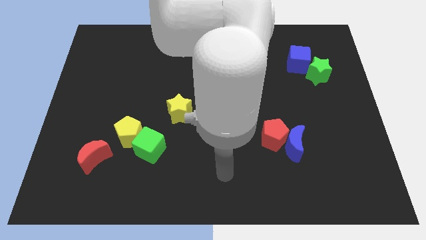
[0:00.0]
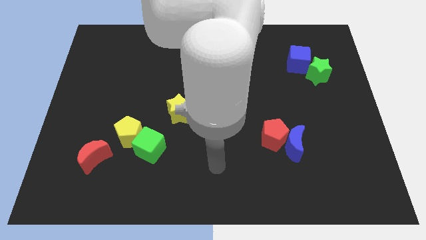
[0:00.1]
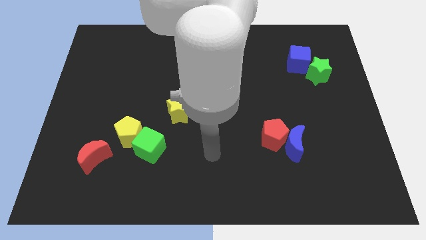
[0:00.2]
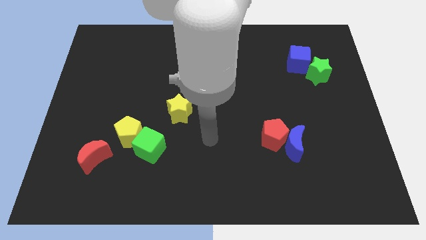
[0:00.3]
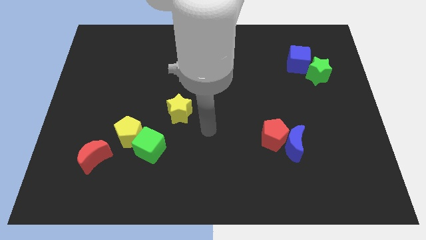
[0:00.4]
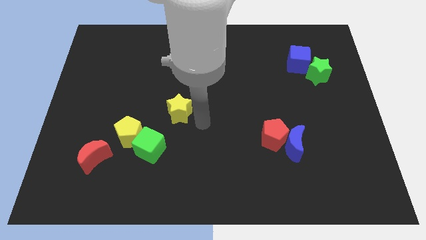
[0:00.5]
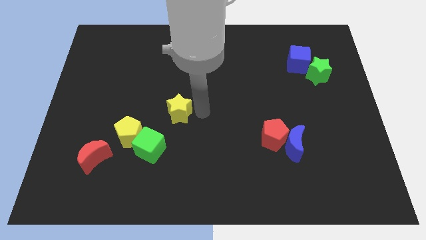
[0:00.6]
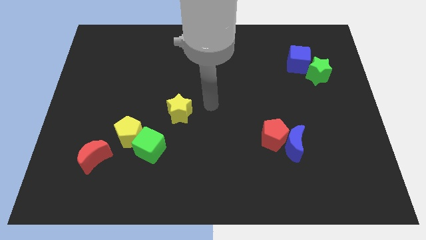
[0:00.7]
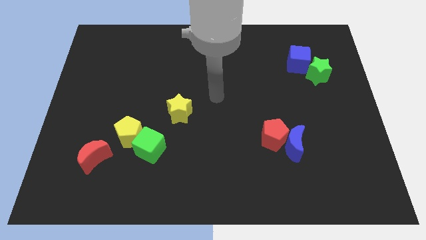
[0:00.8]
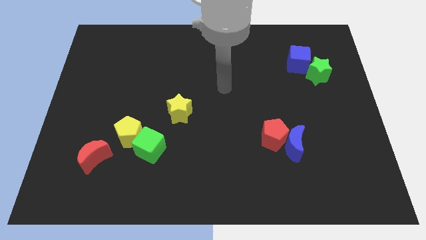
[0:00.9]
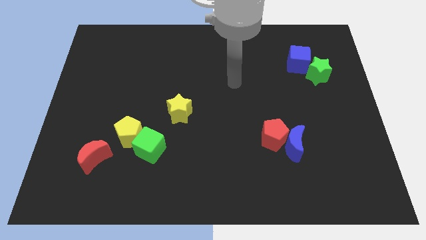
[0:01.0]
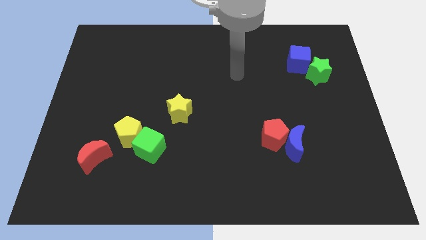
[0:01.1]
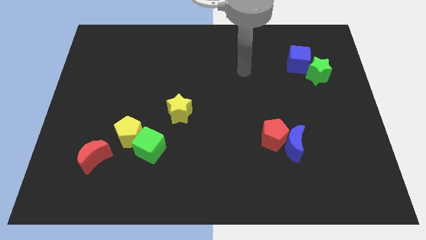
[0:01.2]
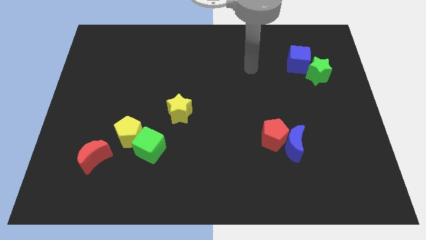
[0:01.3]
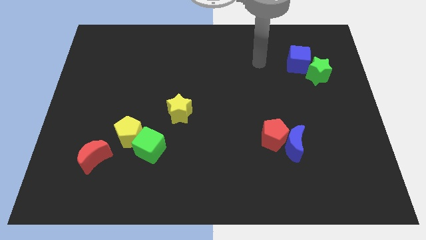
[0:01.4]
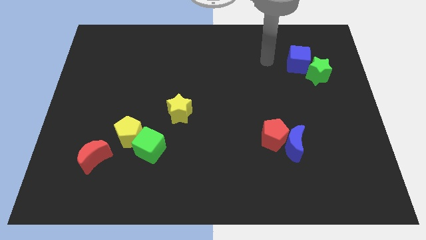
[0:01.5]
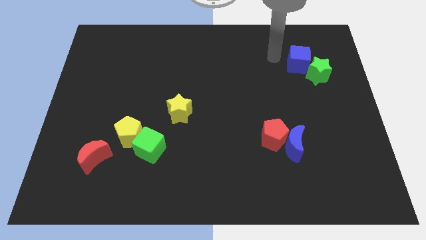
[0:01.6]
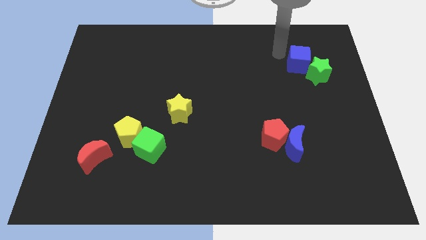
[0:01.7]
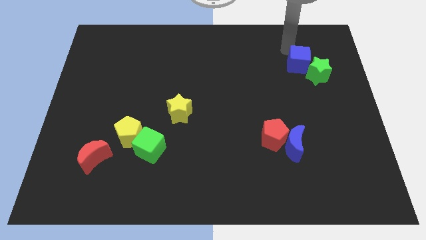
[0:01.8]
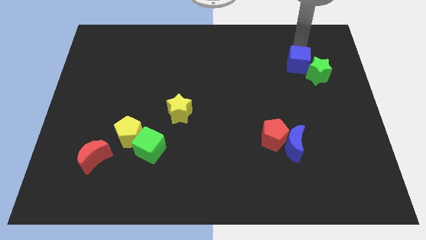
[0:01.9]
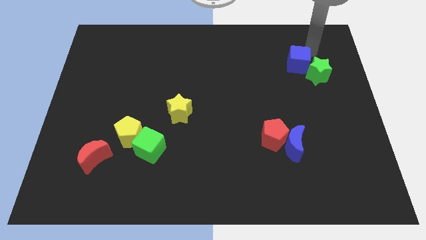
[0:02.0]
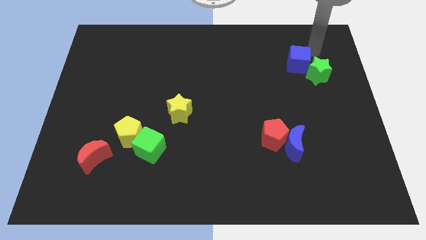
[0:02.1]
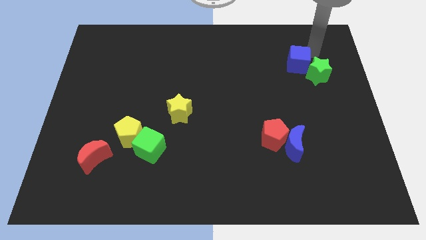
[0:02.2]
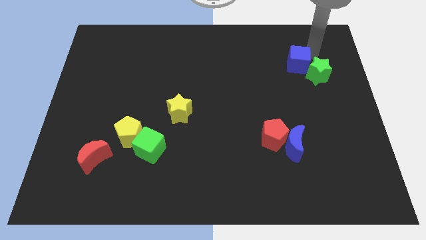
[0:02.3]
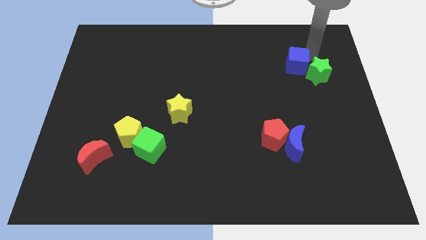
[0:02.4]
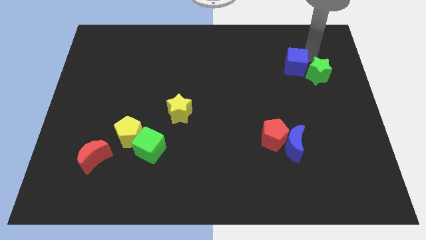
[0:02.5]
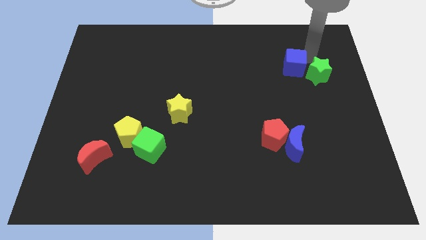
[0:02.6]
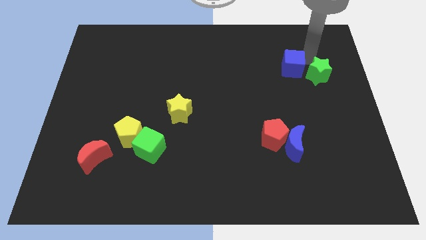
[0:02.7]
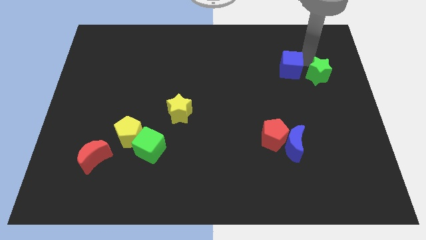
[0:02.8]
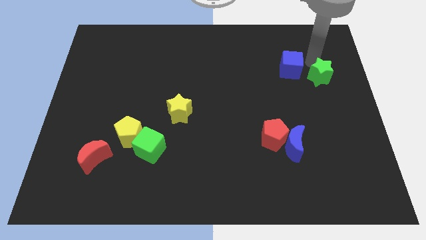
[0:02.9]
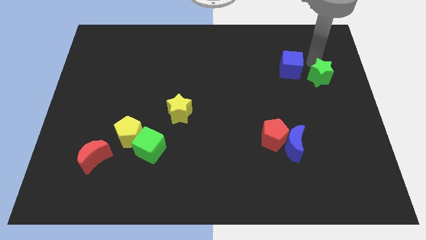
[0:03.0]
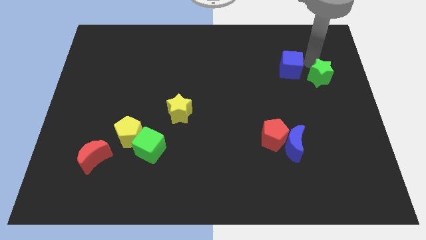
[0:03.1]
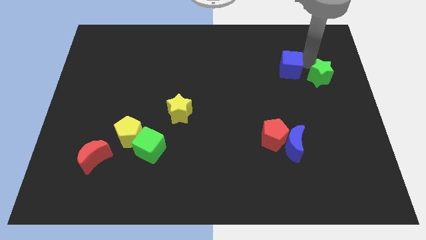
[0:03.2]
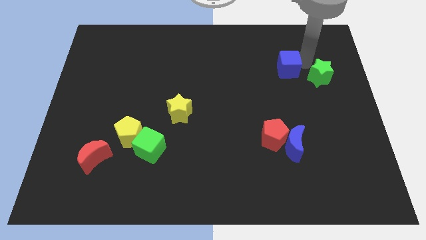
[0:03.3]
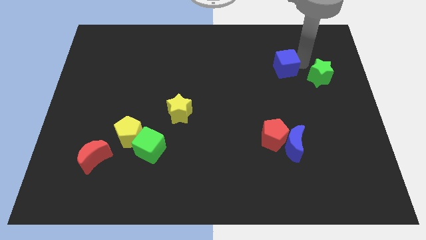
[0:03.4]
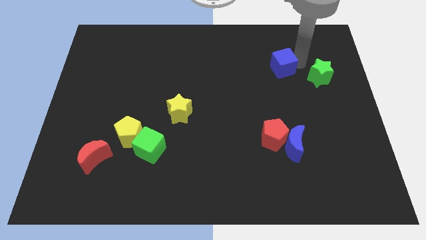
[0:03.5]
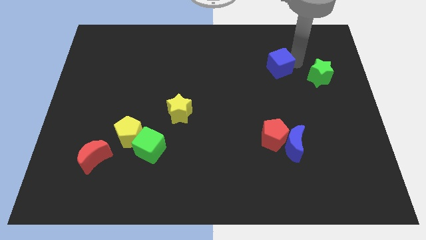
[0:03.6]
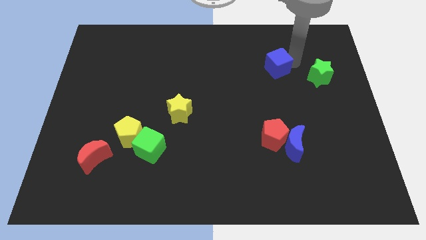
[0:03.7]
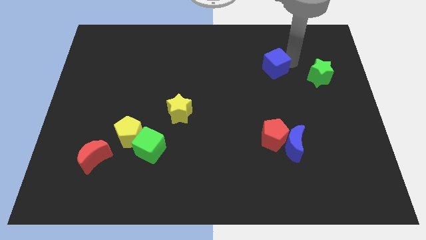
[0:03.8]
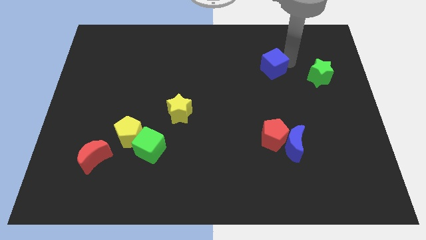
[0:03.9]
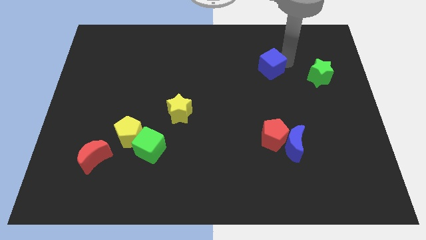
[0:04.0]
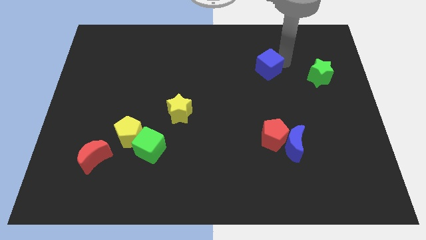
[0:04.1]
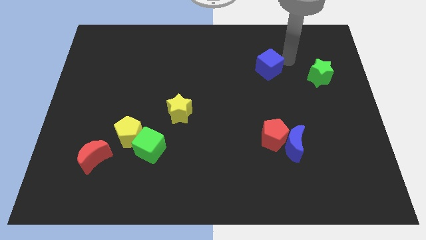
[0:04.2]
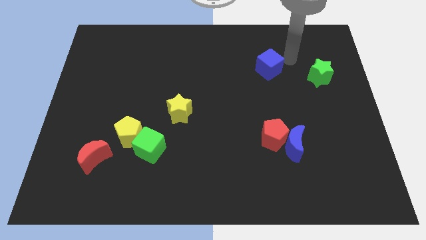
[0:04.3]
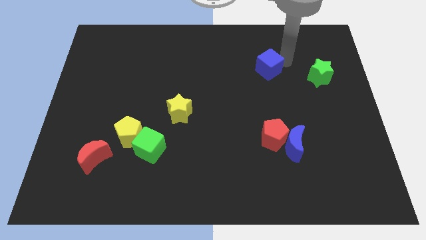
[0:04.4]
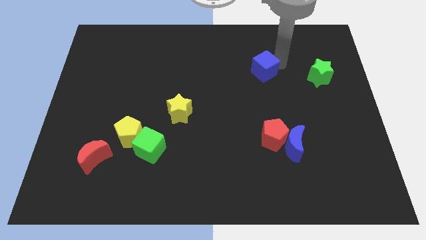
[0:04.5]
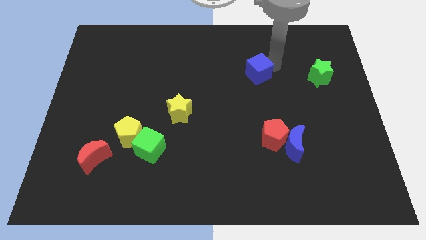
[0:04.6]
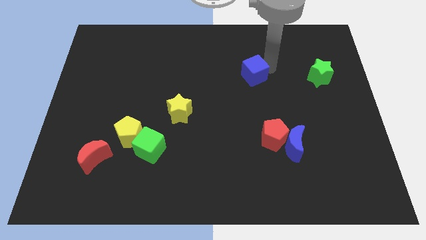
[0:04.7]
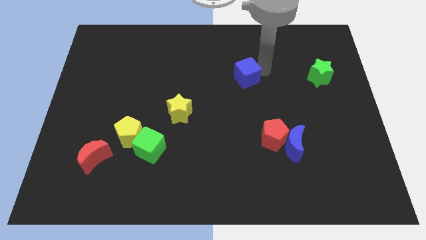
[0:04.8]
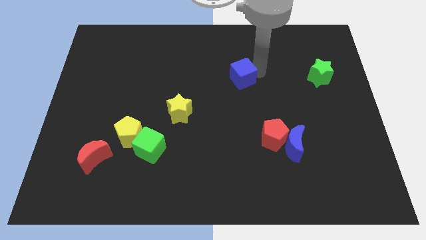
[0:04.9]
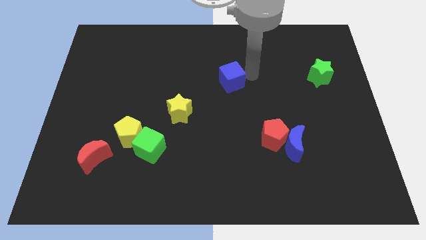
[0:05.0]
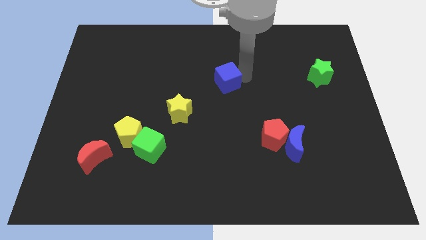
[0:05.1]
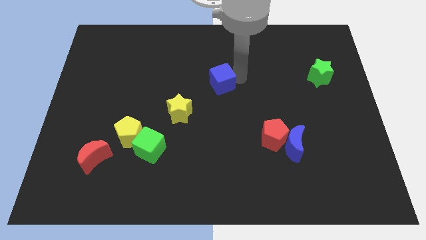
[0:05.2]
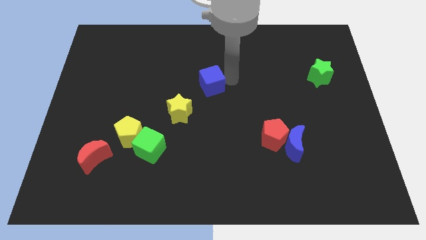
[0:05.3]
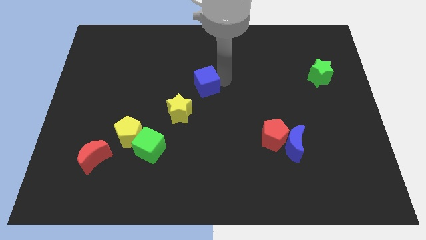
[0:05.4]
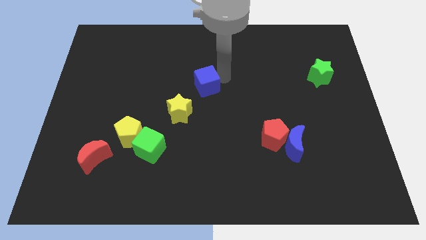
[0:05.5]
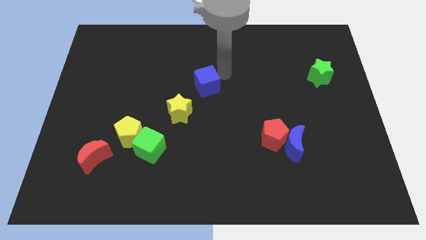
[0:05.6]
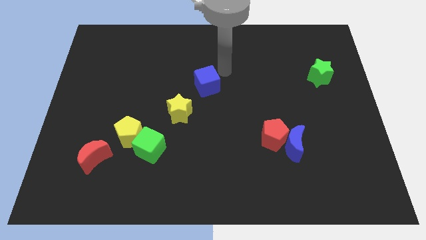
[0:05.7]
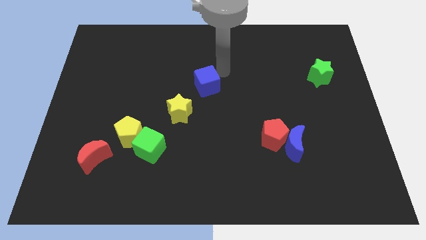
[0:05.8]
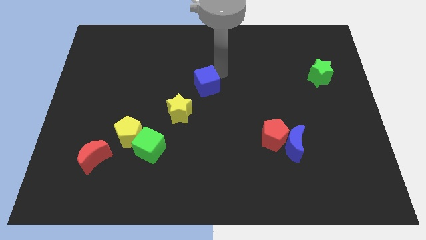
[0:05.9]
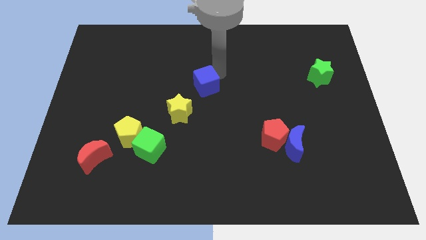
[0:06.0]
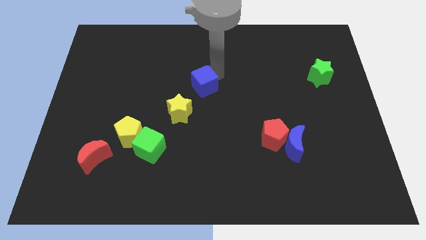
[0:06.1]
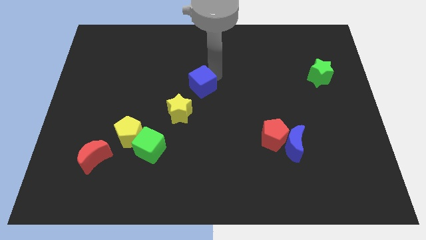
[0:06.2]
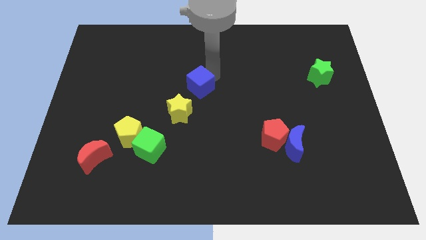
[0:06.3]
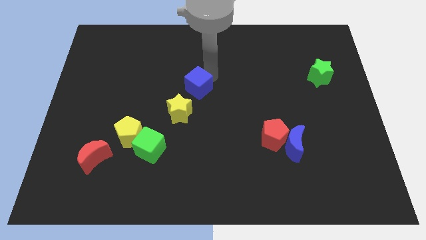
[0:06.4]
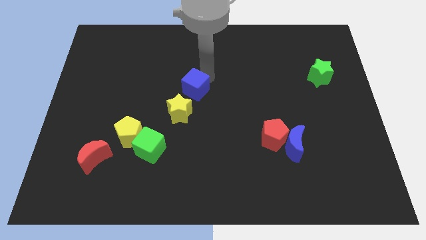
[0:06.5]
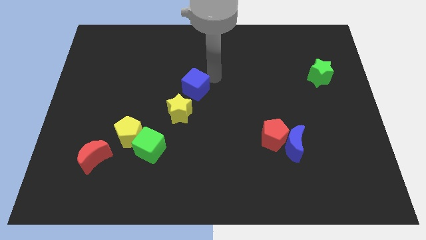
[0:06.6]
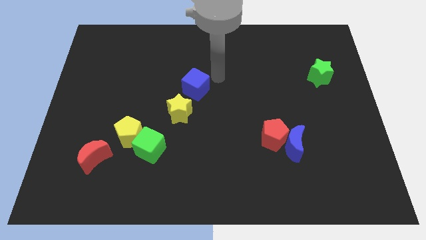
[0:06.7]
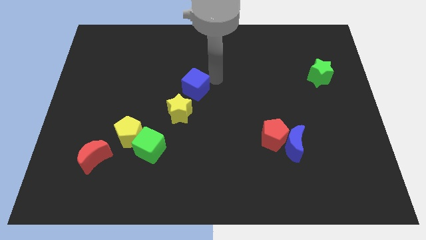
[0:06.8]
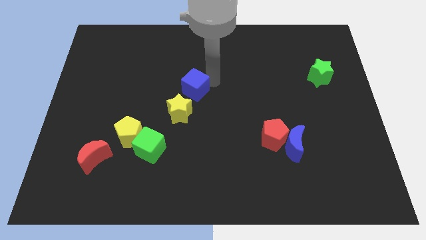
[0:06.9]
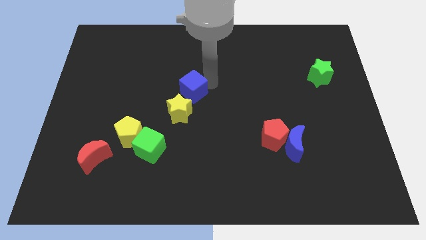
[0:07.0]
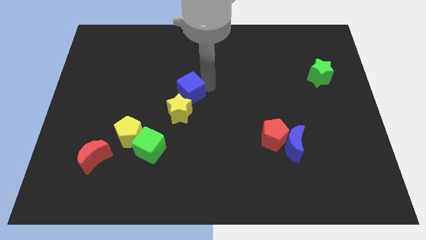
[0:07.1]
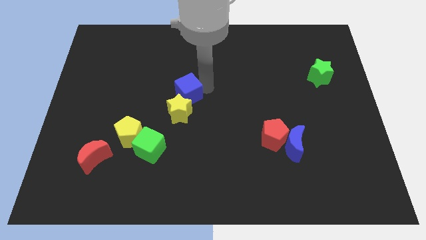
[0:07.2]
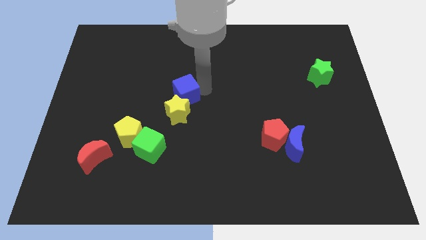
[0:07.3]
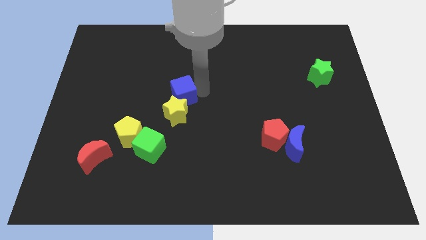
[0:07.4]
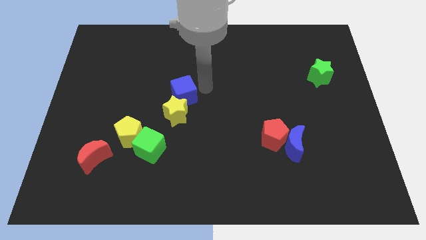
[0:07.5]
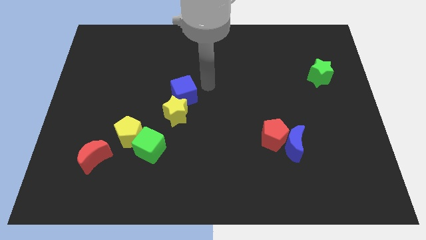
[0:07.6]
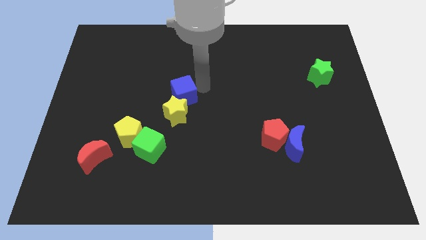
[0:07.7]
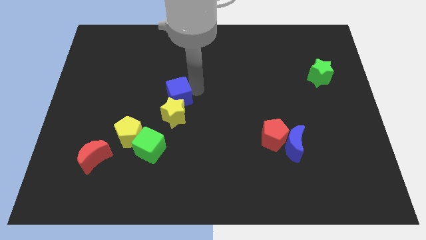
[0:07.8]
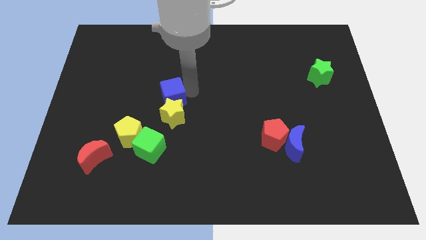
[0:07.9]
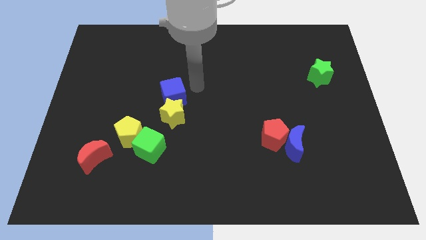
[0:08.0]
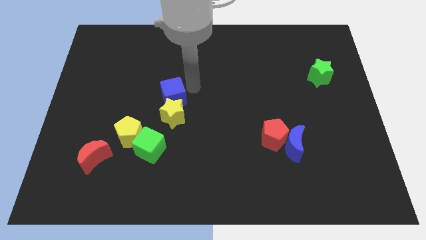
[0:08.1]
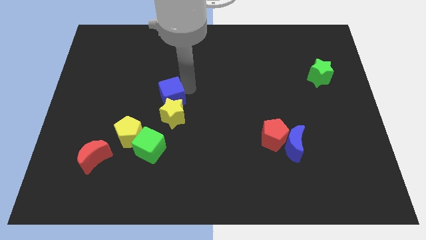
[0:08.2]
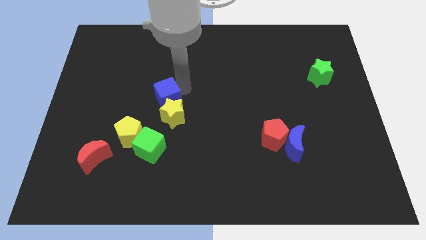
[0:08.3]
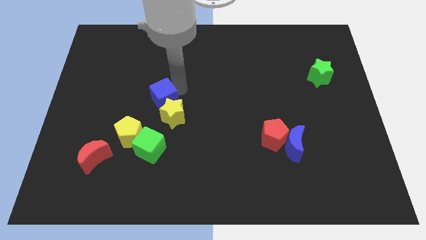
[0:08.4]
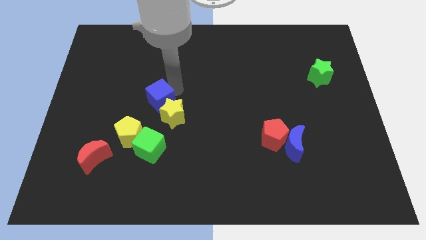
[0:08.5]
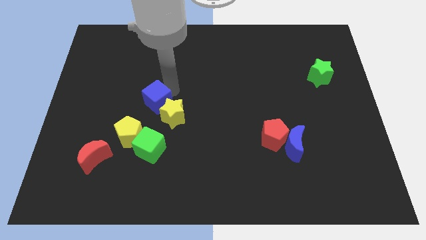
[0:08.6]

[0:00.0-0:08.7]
push the blue cube just left of the yellow star
